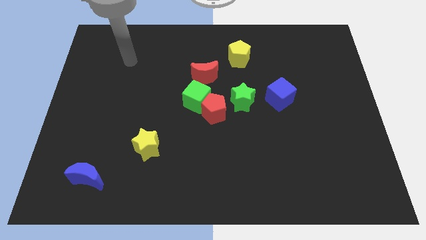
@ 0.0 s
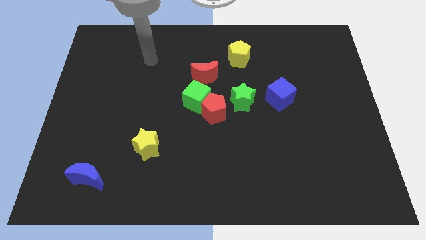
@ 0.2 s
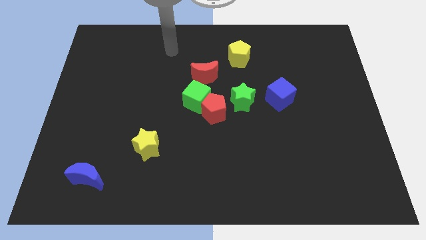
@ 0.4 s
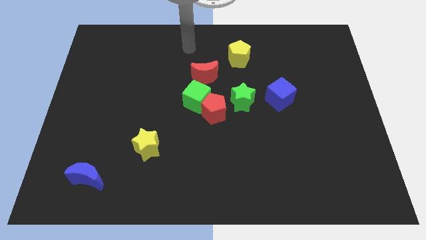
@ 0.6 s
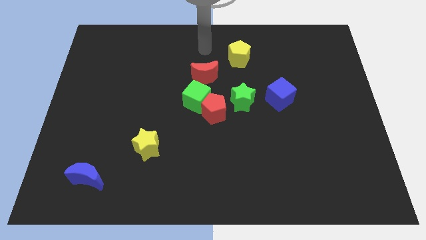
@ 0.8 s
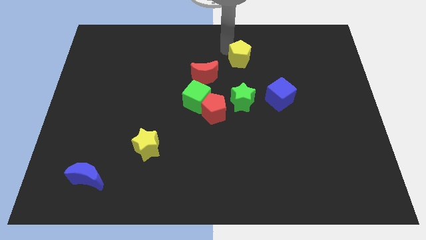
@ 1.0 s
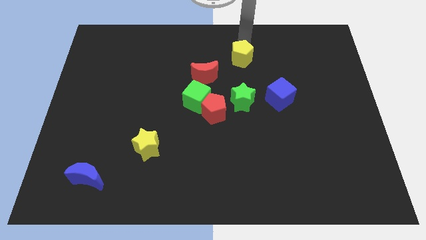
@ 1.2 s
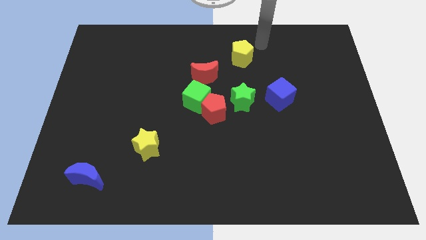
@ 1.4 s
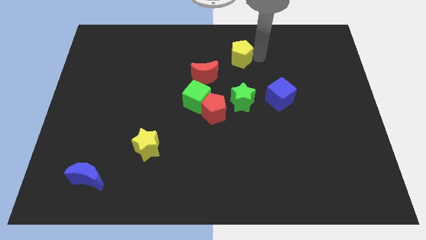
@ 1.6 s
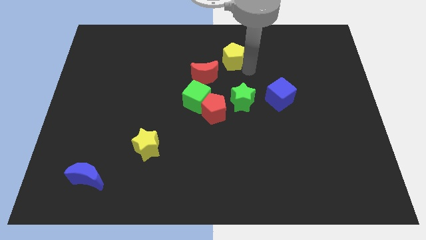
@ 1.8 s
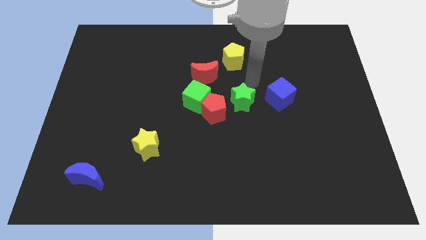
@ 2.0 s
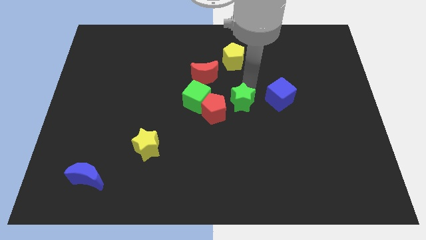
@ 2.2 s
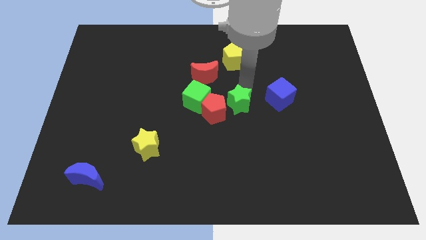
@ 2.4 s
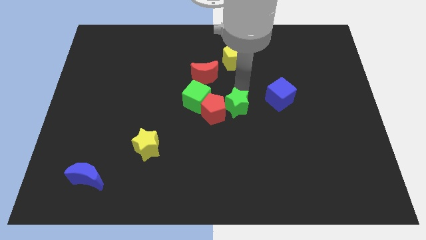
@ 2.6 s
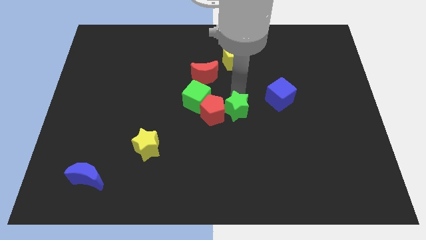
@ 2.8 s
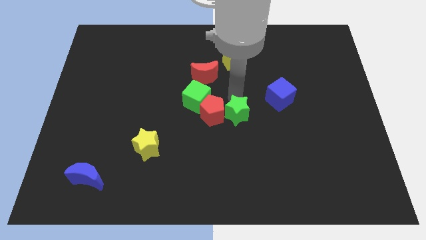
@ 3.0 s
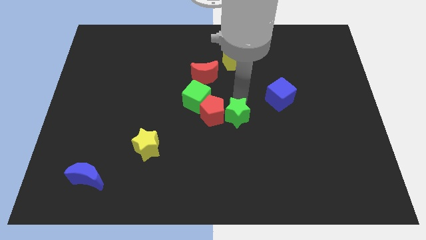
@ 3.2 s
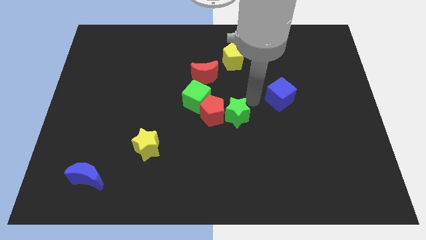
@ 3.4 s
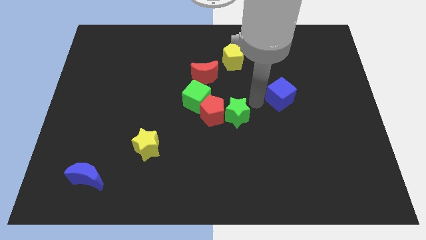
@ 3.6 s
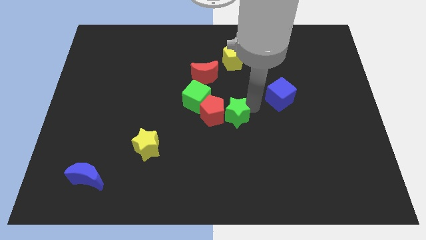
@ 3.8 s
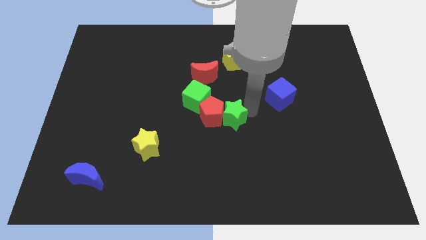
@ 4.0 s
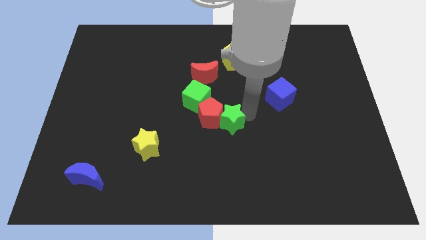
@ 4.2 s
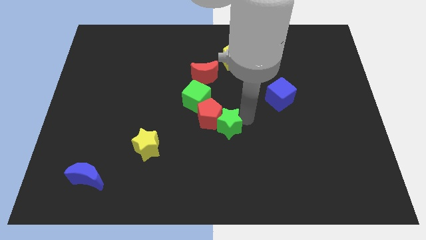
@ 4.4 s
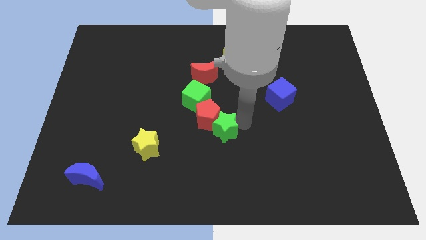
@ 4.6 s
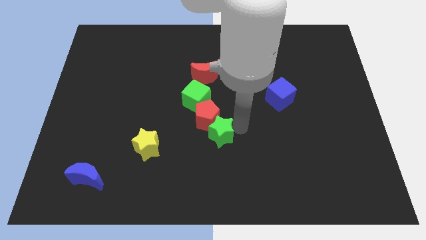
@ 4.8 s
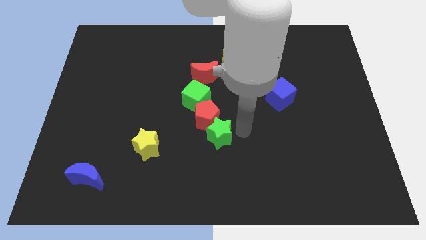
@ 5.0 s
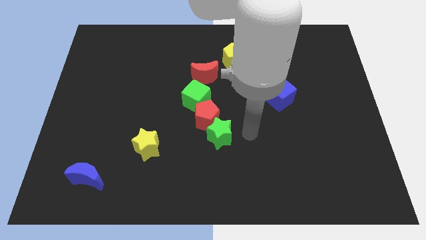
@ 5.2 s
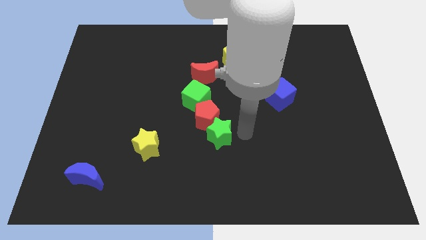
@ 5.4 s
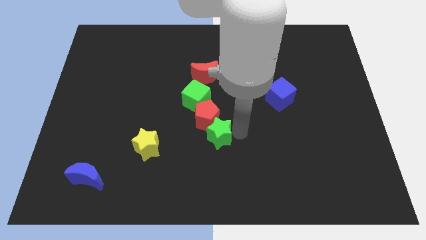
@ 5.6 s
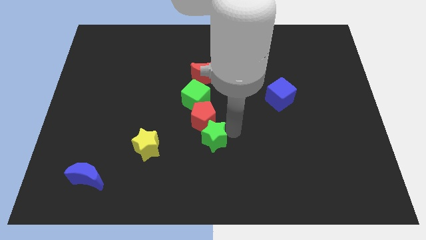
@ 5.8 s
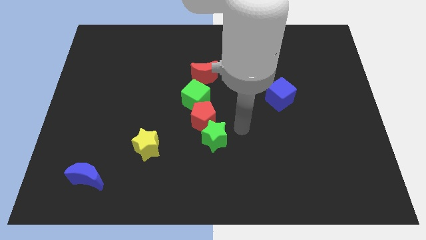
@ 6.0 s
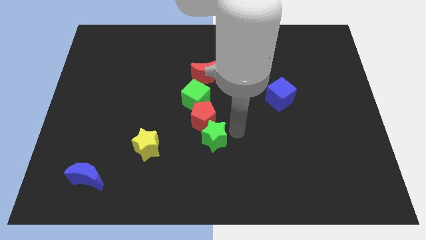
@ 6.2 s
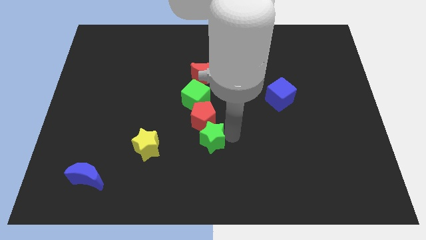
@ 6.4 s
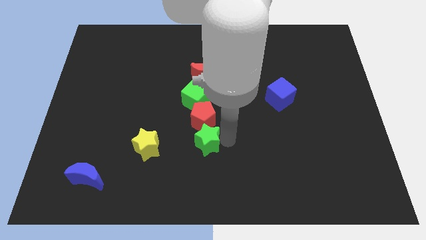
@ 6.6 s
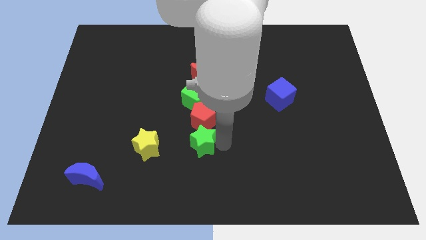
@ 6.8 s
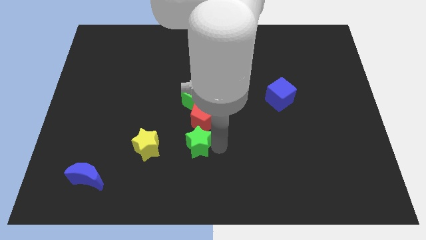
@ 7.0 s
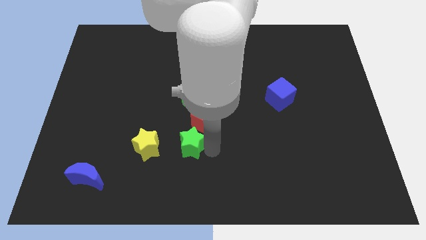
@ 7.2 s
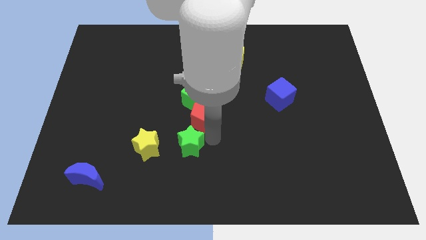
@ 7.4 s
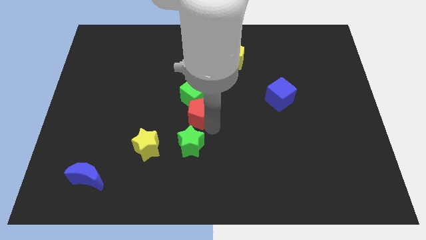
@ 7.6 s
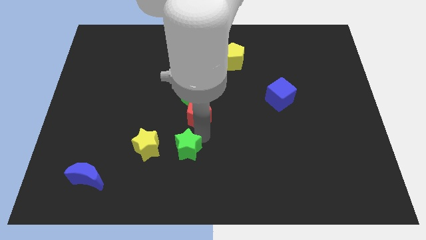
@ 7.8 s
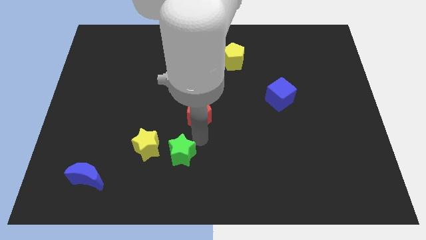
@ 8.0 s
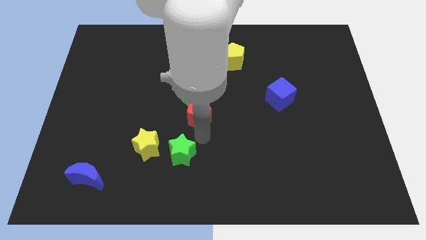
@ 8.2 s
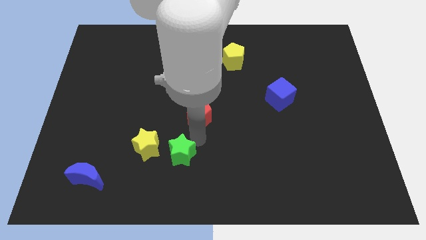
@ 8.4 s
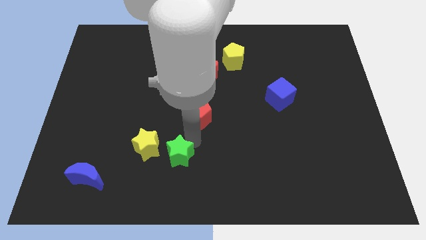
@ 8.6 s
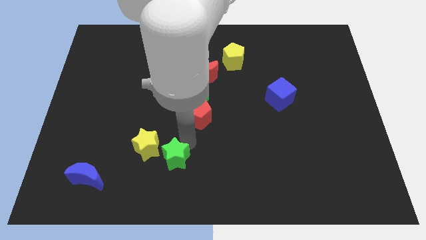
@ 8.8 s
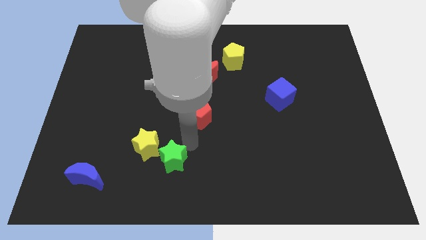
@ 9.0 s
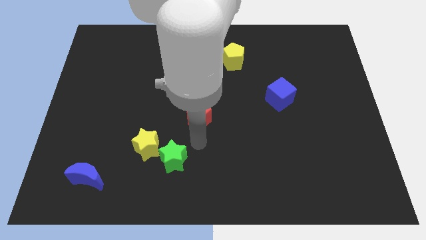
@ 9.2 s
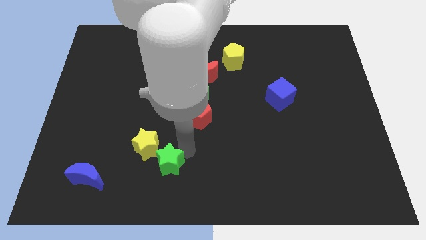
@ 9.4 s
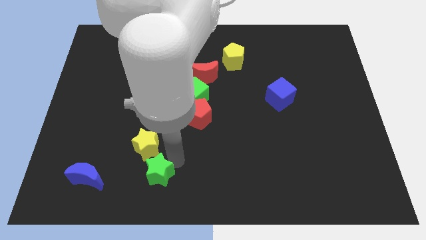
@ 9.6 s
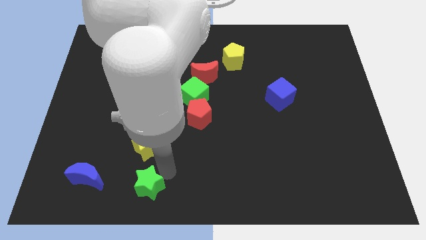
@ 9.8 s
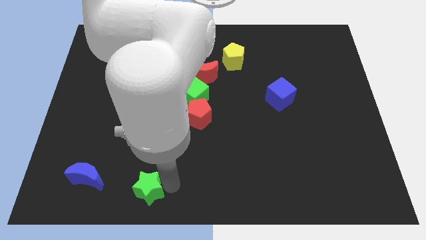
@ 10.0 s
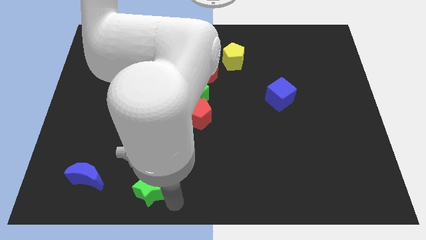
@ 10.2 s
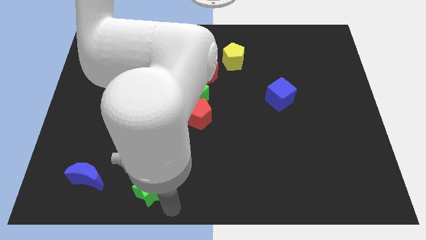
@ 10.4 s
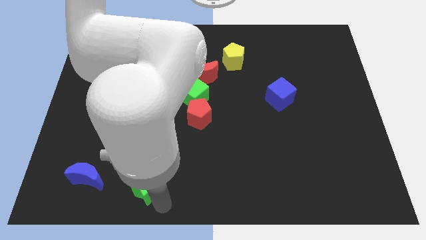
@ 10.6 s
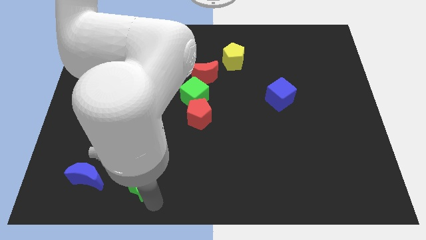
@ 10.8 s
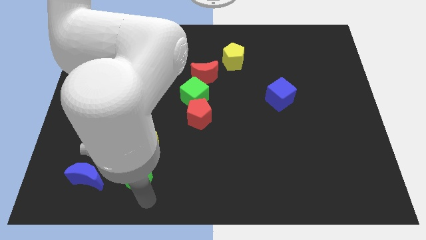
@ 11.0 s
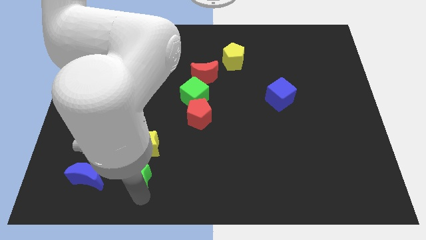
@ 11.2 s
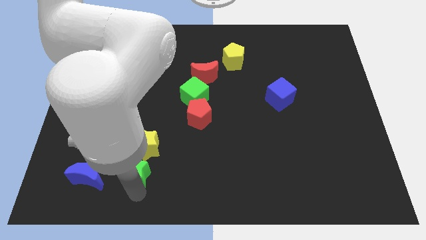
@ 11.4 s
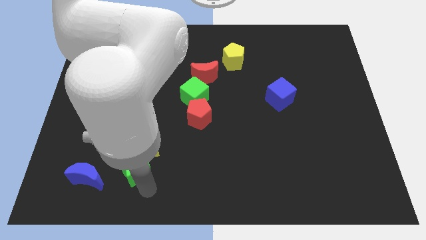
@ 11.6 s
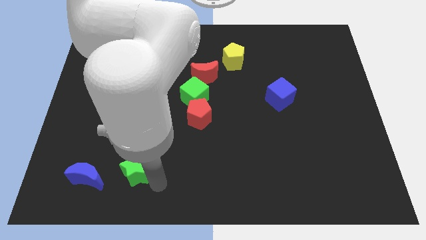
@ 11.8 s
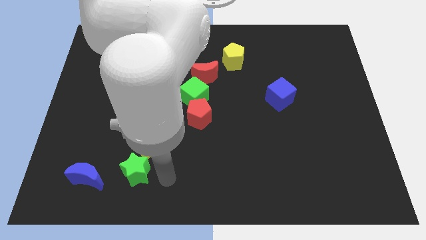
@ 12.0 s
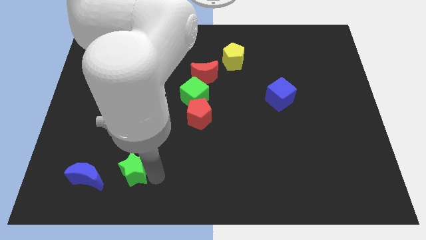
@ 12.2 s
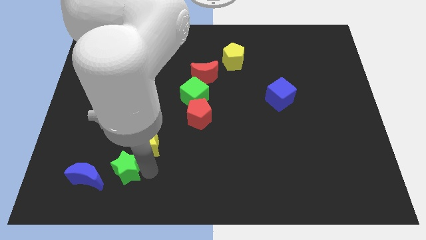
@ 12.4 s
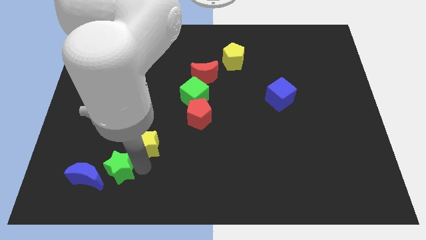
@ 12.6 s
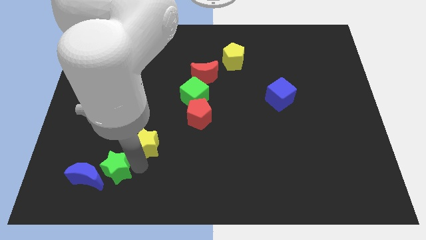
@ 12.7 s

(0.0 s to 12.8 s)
slide the green star to the blue moon
